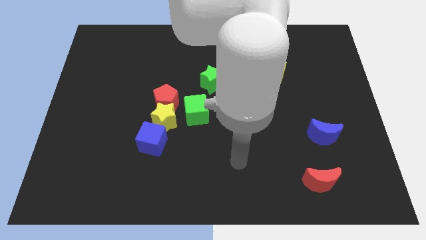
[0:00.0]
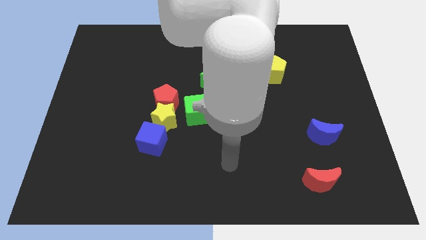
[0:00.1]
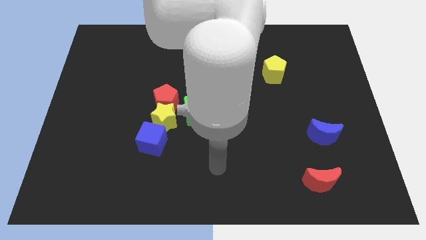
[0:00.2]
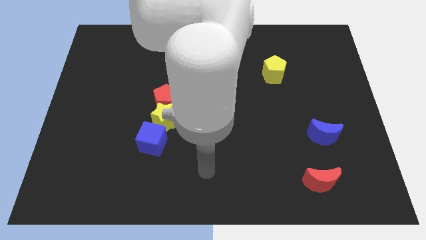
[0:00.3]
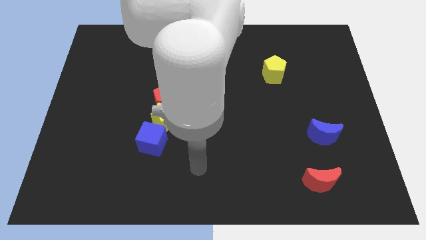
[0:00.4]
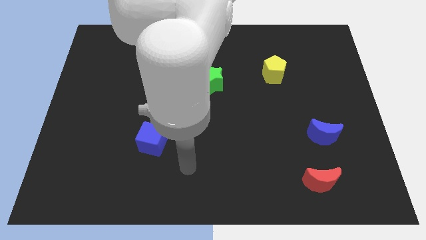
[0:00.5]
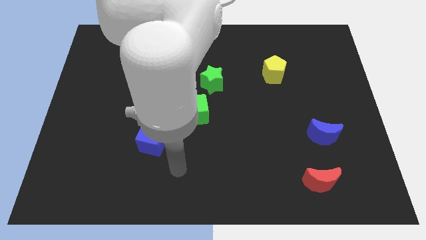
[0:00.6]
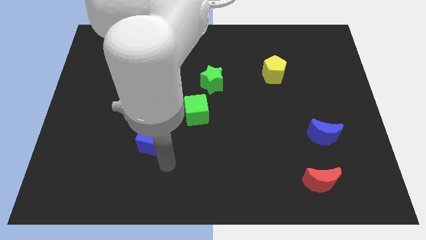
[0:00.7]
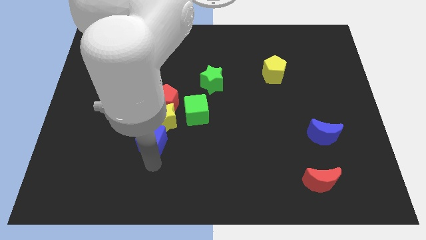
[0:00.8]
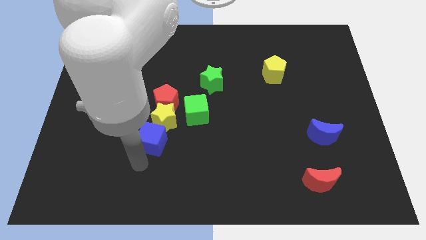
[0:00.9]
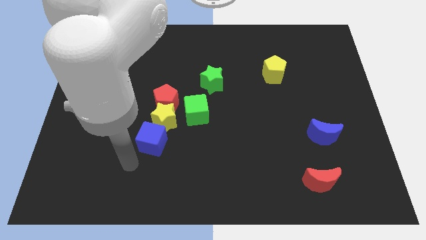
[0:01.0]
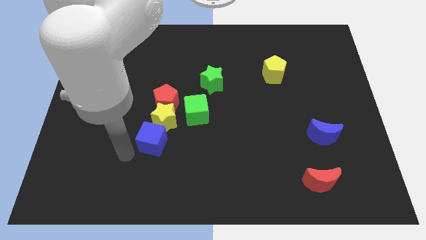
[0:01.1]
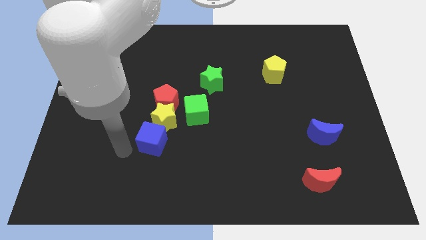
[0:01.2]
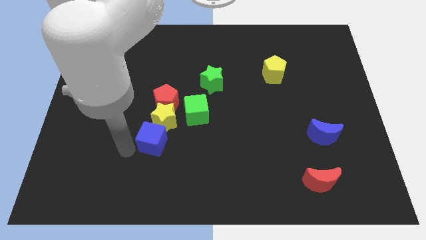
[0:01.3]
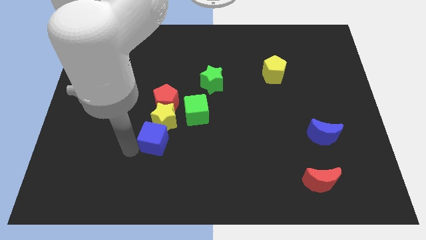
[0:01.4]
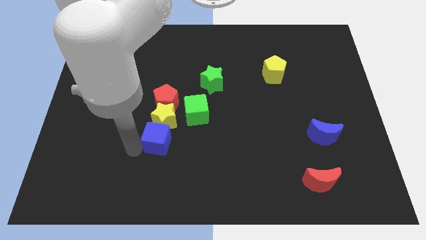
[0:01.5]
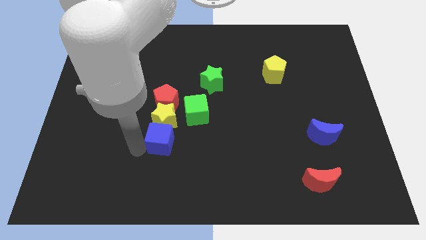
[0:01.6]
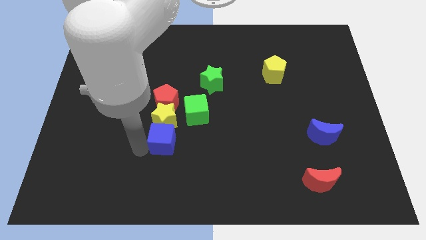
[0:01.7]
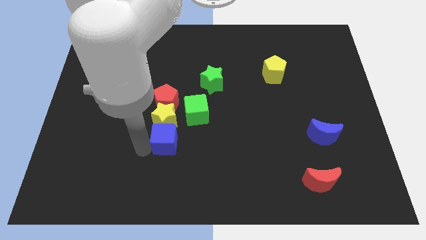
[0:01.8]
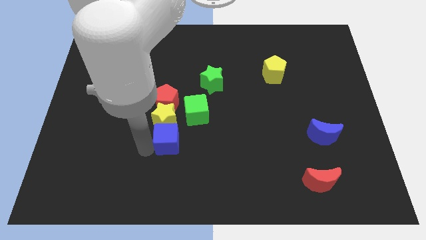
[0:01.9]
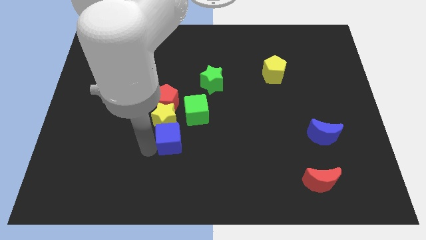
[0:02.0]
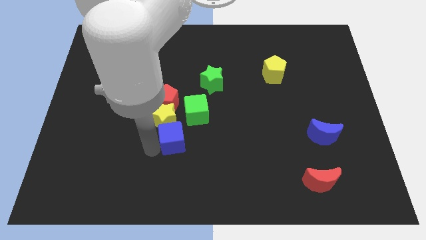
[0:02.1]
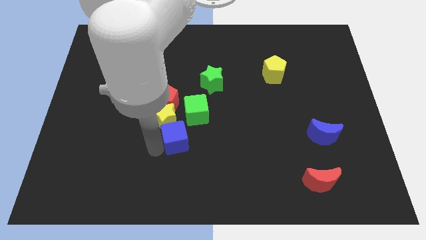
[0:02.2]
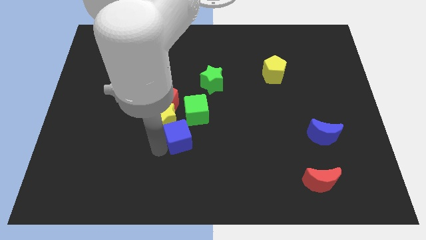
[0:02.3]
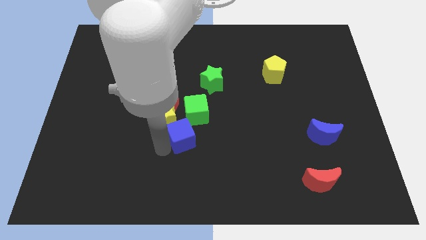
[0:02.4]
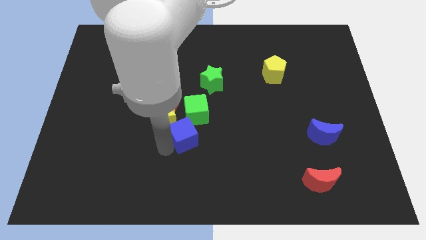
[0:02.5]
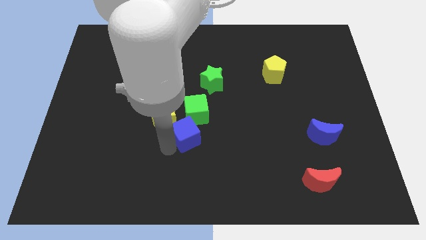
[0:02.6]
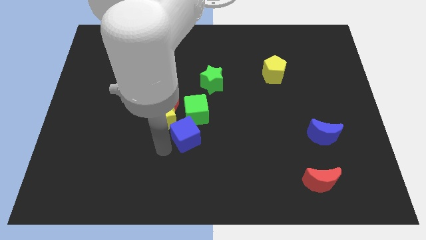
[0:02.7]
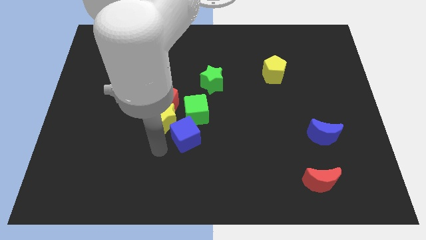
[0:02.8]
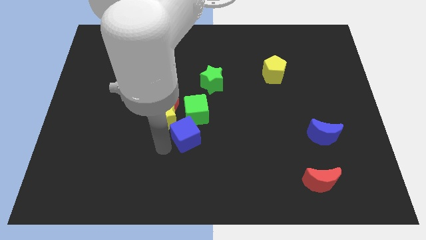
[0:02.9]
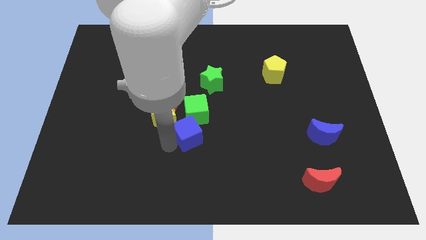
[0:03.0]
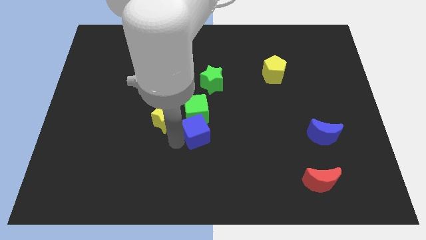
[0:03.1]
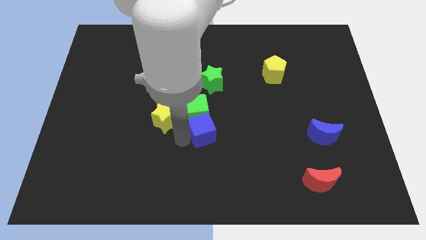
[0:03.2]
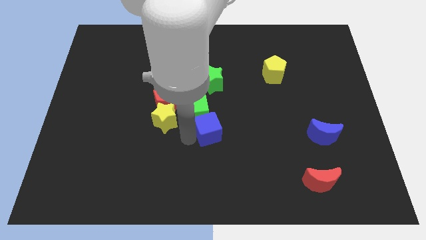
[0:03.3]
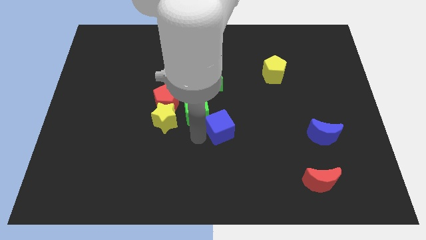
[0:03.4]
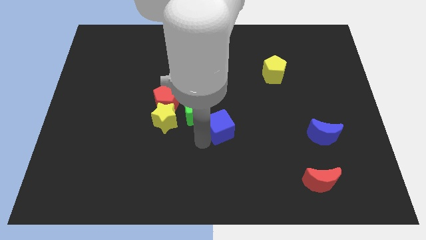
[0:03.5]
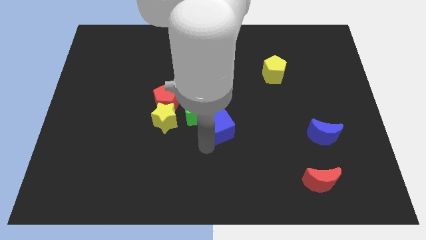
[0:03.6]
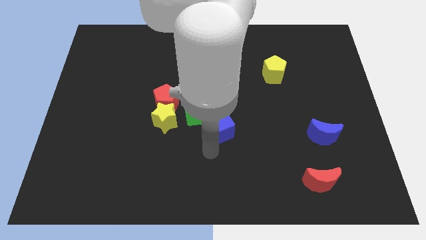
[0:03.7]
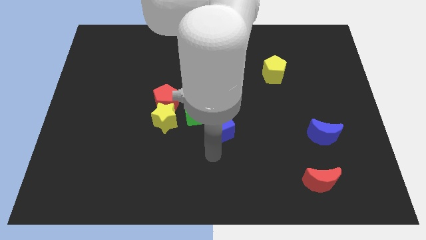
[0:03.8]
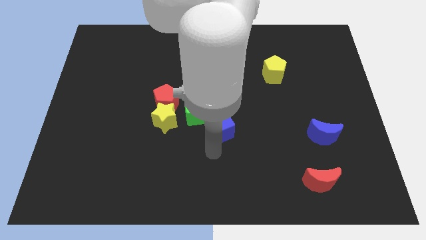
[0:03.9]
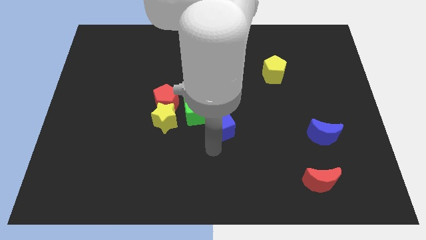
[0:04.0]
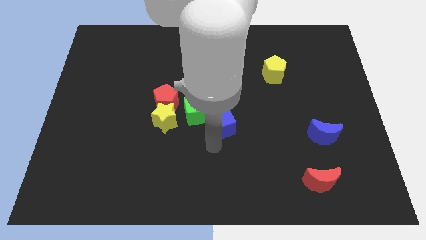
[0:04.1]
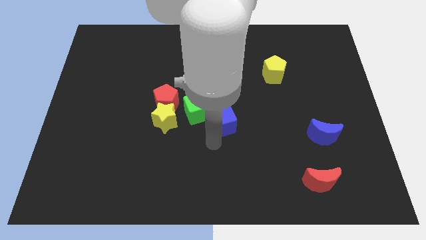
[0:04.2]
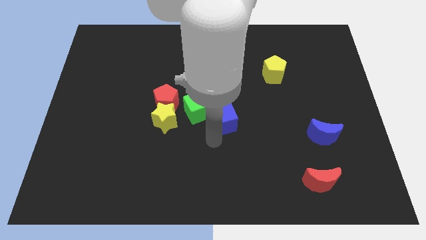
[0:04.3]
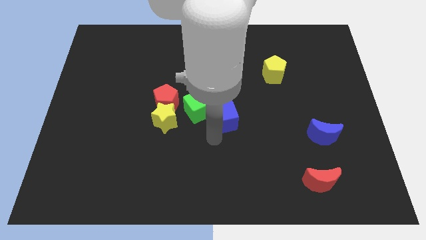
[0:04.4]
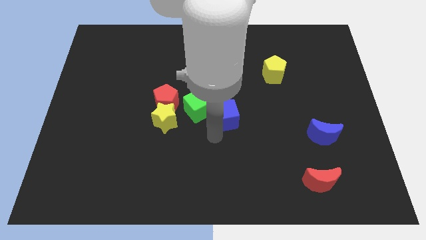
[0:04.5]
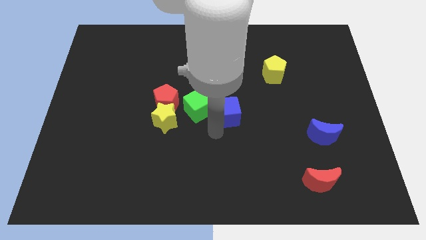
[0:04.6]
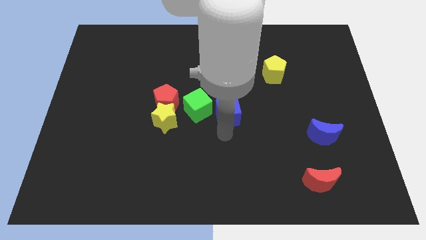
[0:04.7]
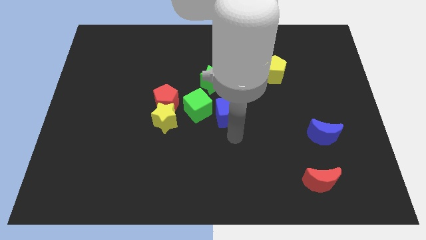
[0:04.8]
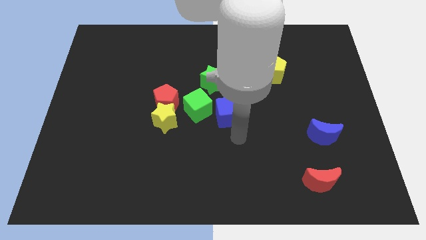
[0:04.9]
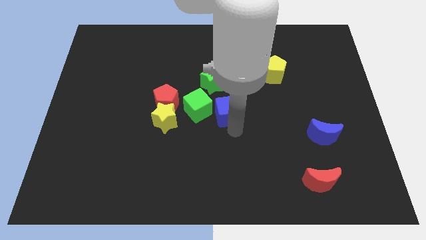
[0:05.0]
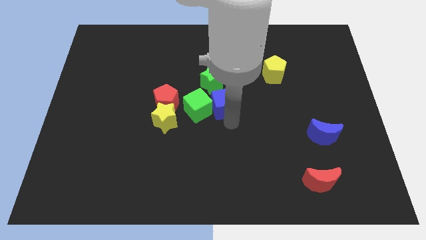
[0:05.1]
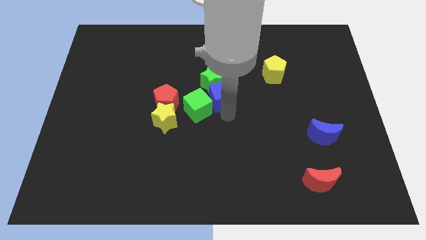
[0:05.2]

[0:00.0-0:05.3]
move the blue cube next to the green star

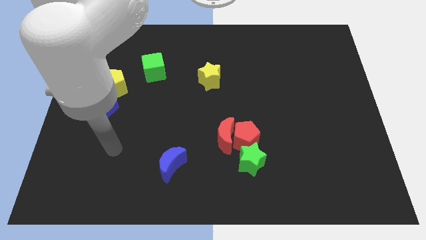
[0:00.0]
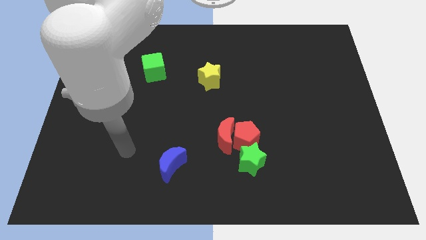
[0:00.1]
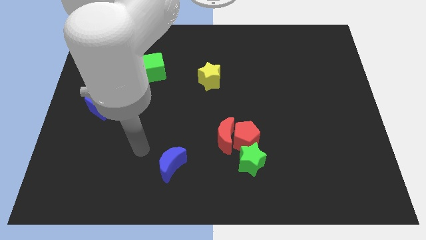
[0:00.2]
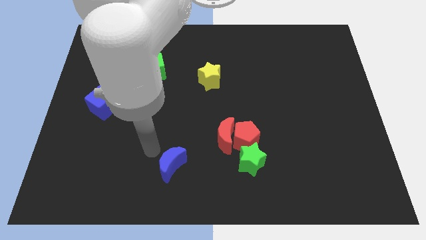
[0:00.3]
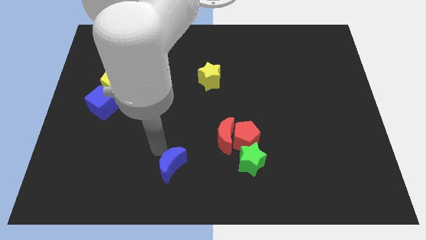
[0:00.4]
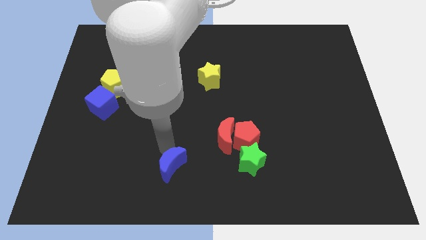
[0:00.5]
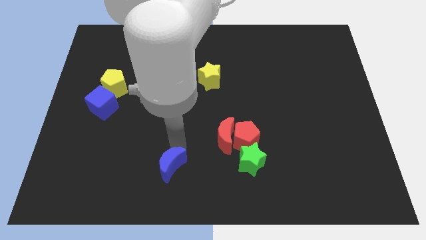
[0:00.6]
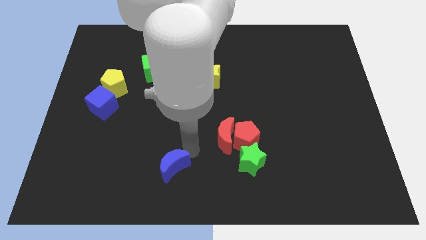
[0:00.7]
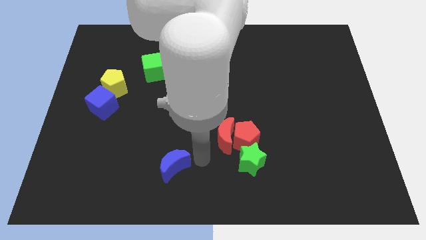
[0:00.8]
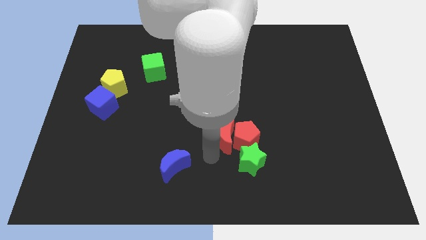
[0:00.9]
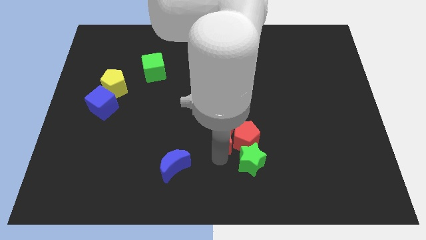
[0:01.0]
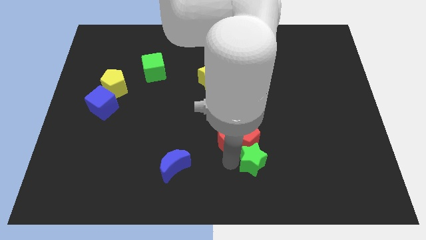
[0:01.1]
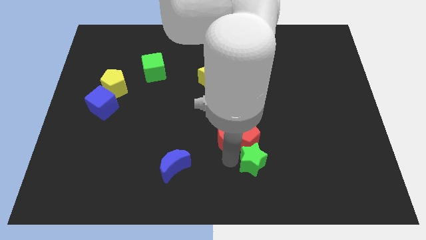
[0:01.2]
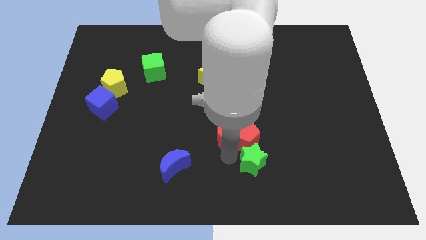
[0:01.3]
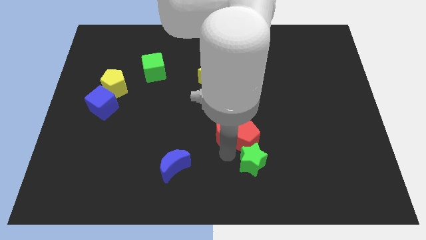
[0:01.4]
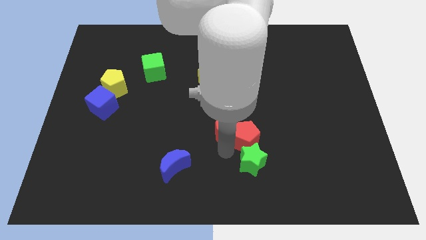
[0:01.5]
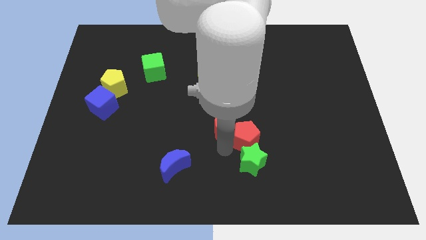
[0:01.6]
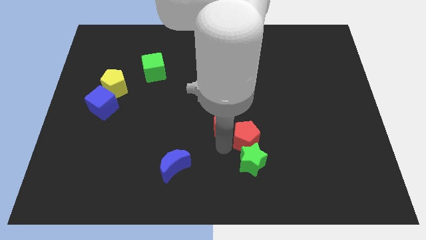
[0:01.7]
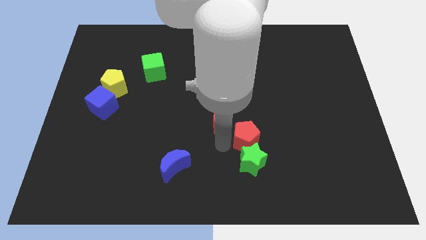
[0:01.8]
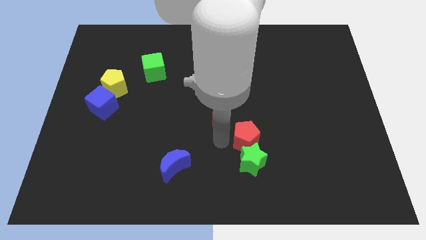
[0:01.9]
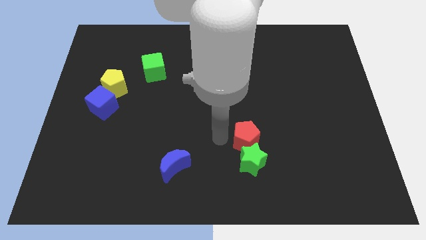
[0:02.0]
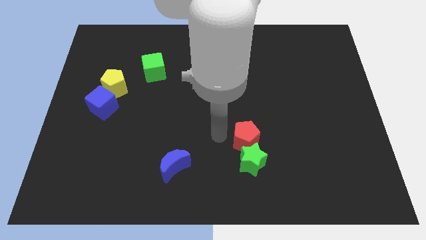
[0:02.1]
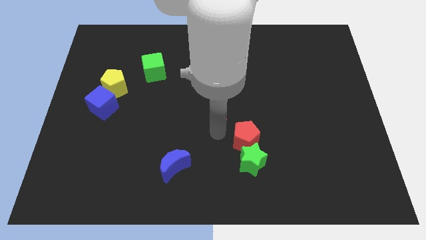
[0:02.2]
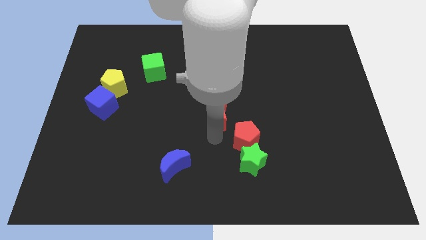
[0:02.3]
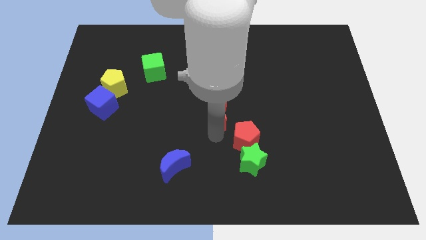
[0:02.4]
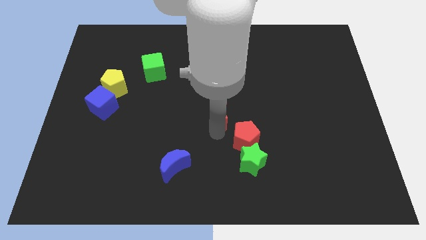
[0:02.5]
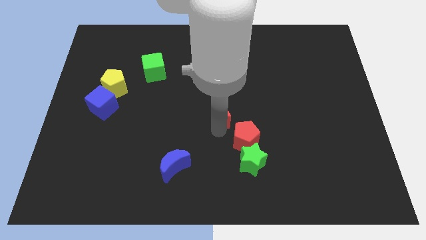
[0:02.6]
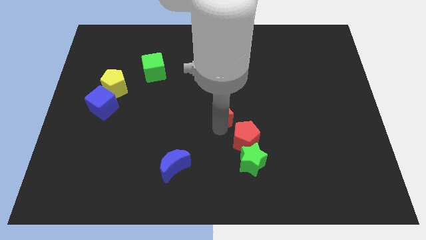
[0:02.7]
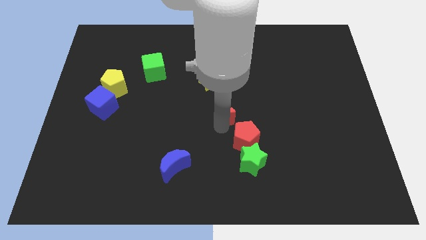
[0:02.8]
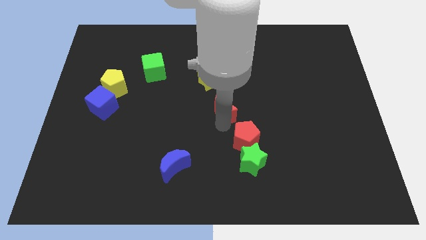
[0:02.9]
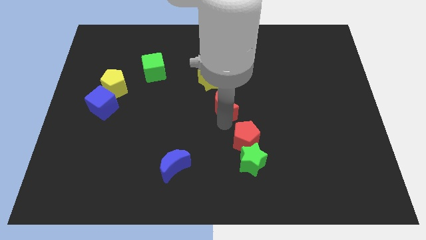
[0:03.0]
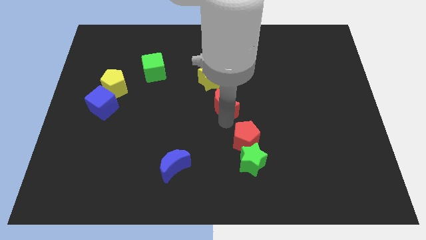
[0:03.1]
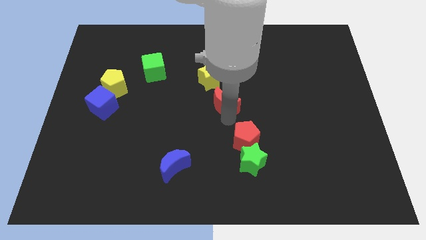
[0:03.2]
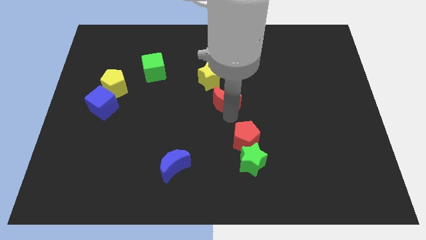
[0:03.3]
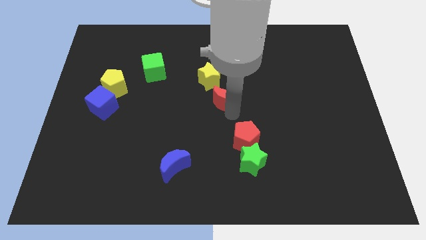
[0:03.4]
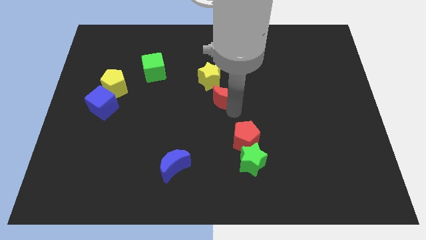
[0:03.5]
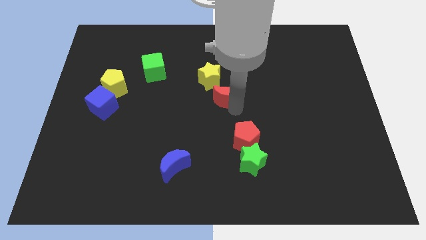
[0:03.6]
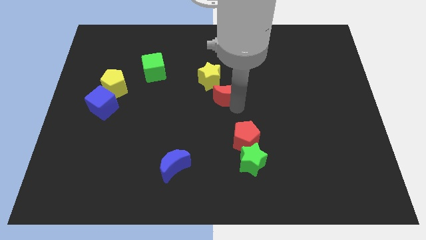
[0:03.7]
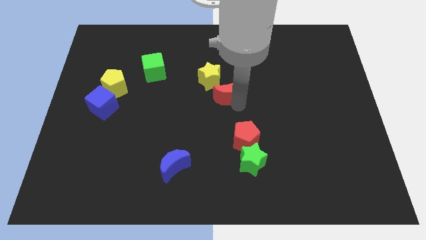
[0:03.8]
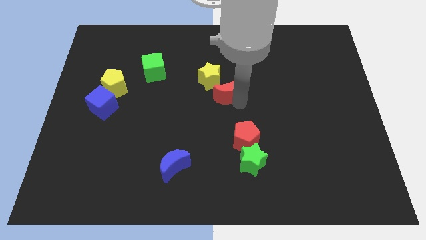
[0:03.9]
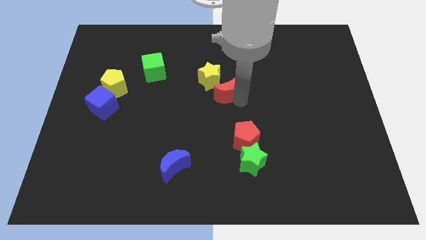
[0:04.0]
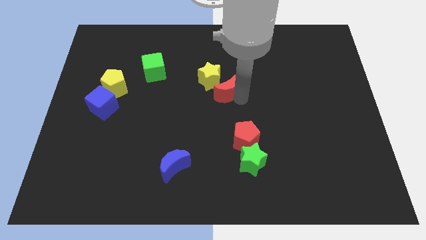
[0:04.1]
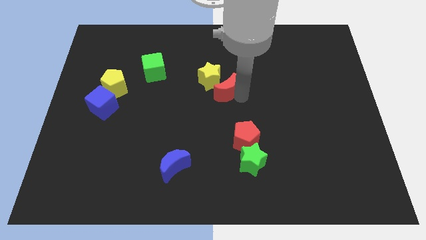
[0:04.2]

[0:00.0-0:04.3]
slide the red moon towards the yellow star
